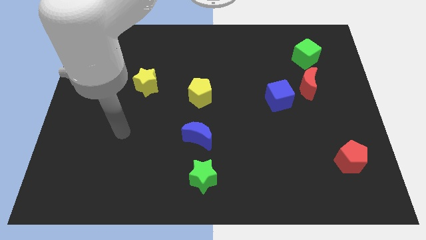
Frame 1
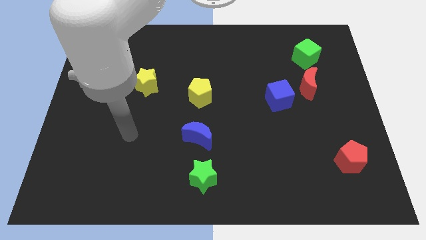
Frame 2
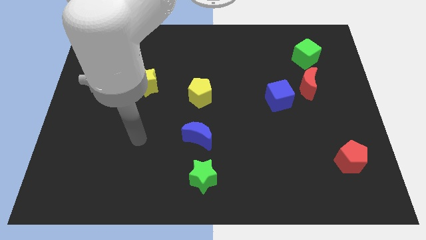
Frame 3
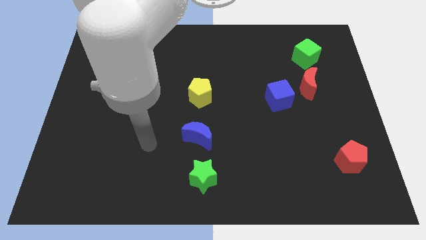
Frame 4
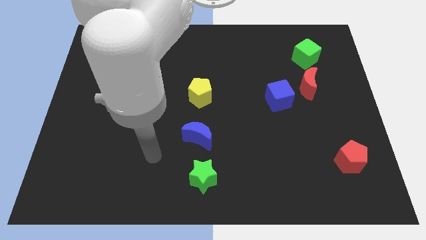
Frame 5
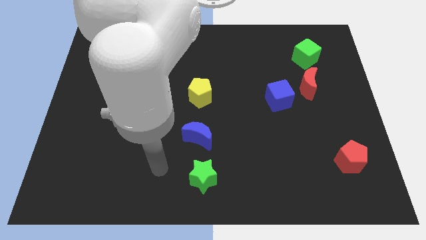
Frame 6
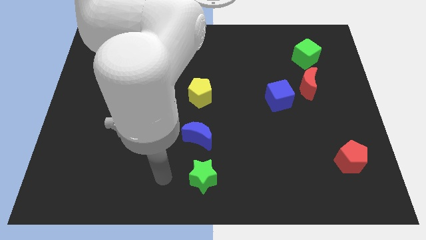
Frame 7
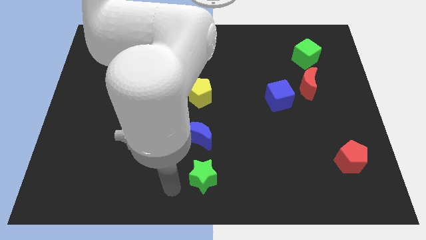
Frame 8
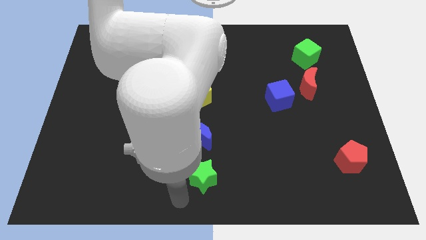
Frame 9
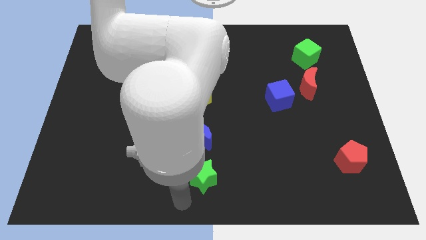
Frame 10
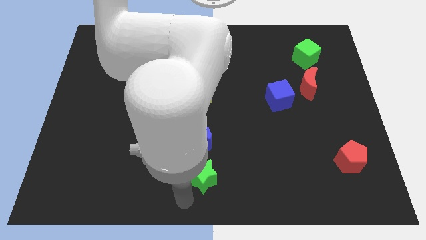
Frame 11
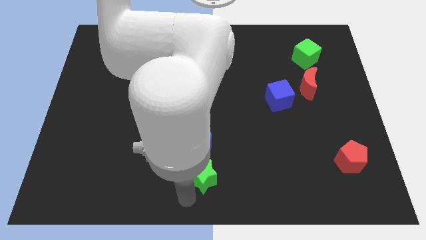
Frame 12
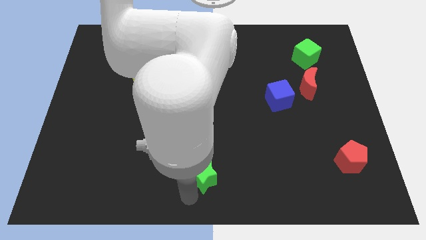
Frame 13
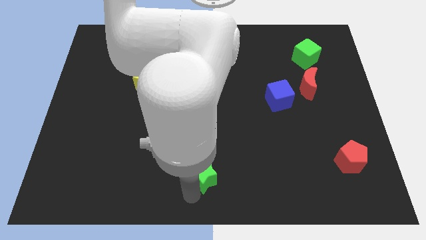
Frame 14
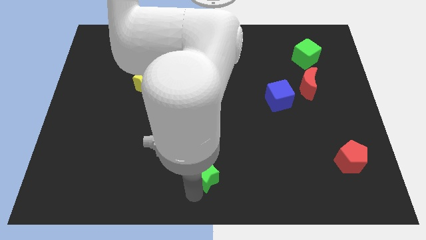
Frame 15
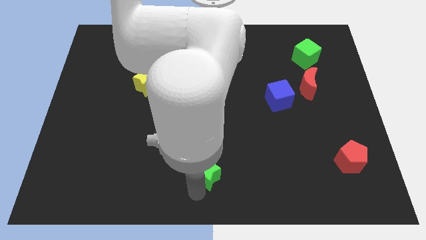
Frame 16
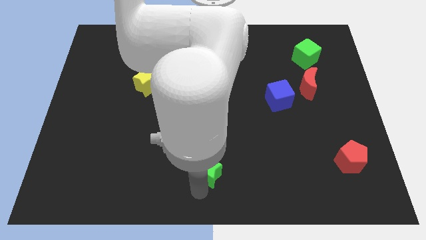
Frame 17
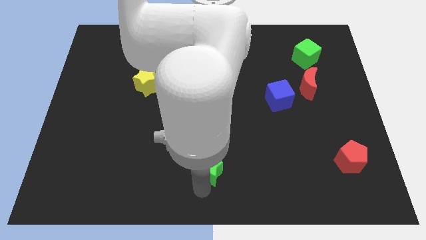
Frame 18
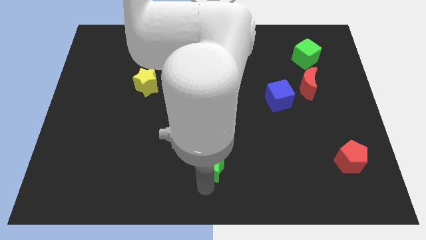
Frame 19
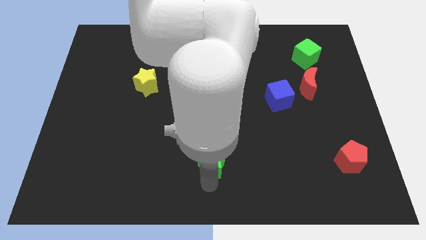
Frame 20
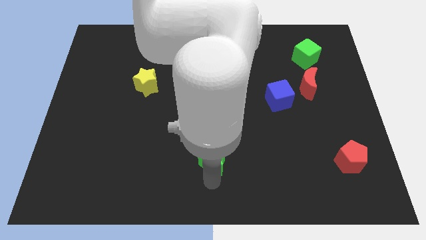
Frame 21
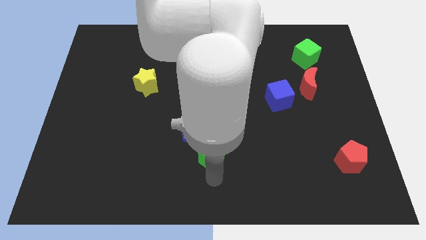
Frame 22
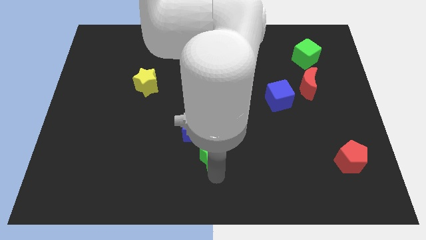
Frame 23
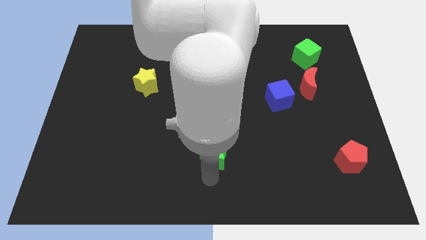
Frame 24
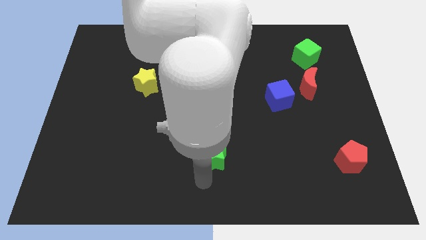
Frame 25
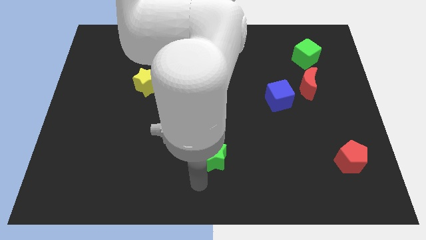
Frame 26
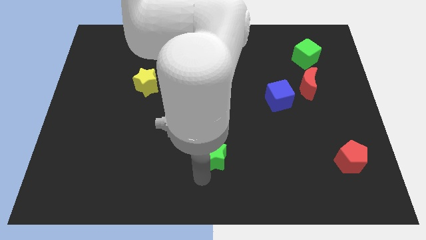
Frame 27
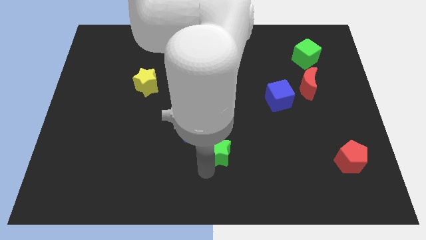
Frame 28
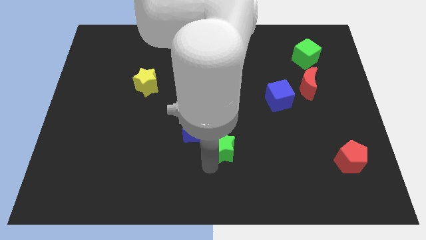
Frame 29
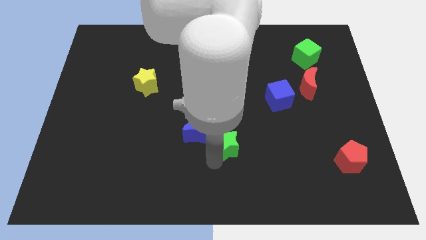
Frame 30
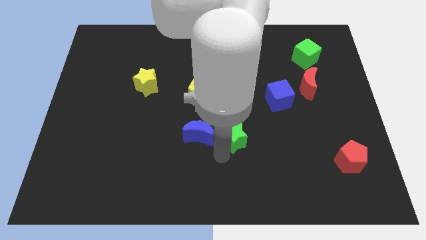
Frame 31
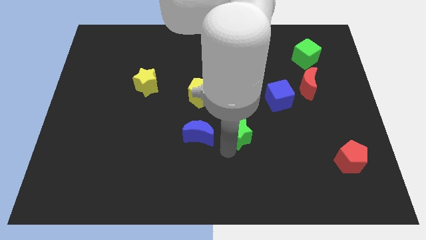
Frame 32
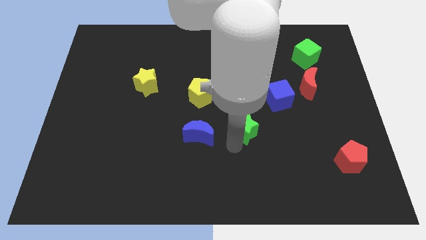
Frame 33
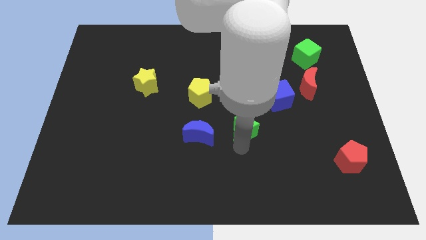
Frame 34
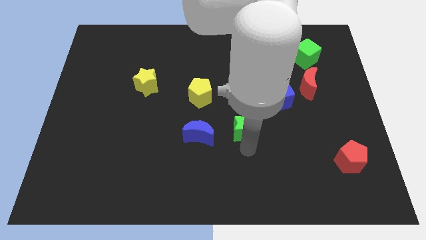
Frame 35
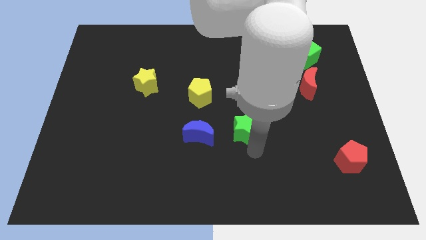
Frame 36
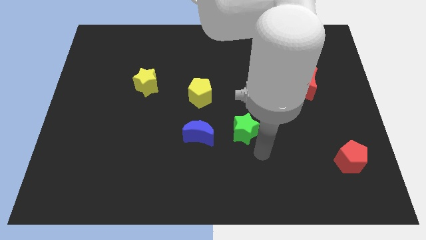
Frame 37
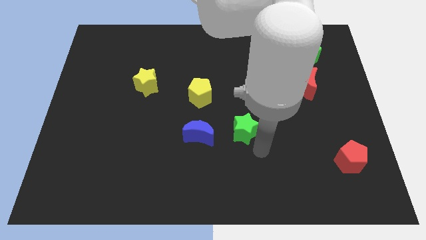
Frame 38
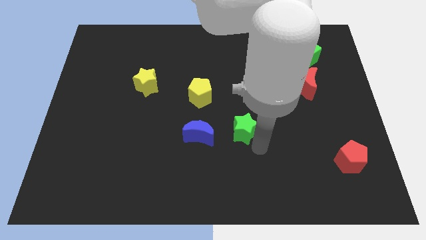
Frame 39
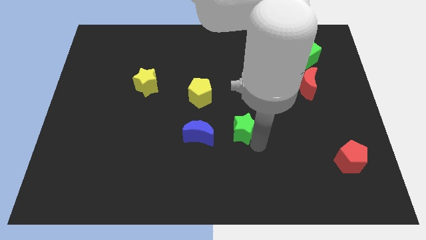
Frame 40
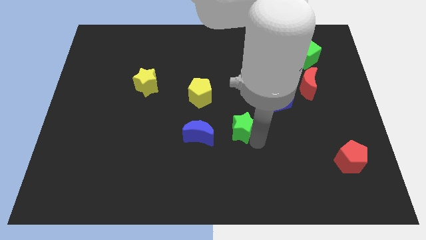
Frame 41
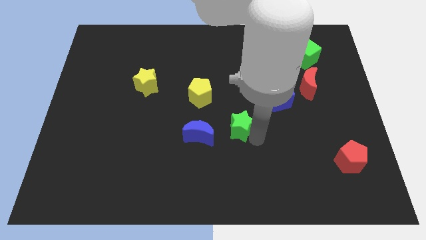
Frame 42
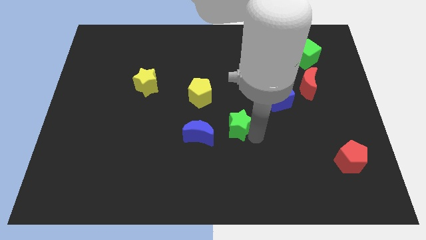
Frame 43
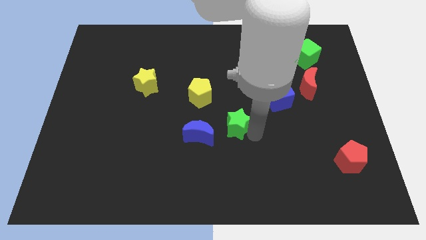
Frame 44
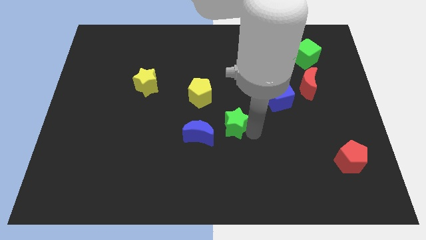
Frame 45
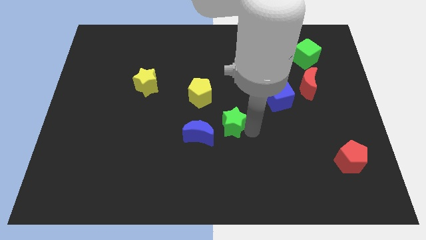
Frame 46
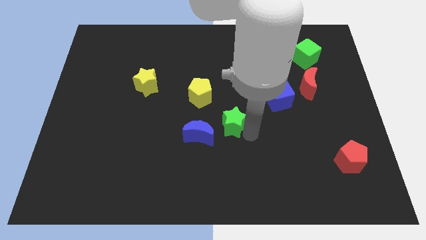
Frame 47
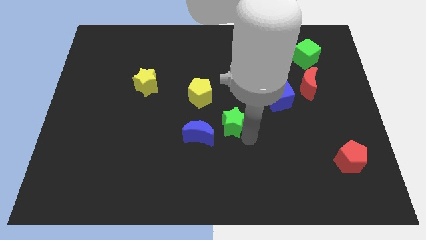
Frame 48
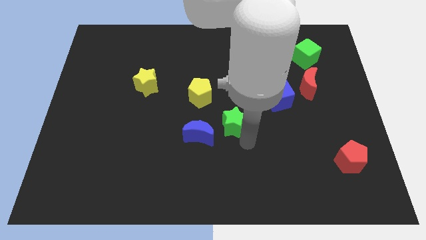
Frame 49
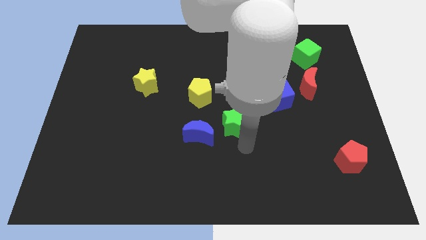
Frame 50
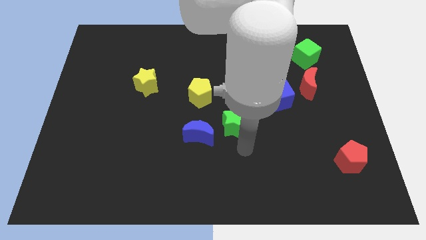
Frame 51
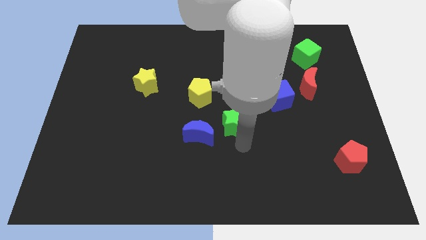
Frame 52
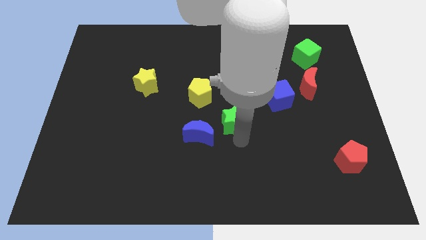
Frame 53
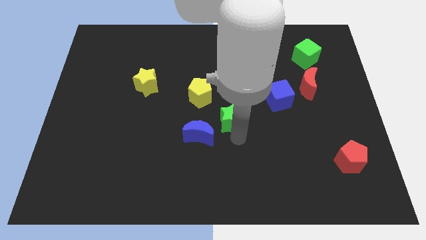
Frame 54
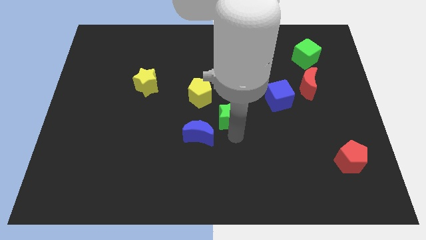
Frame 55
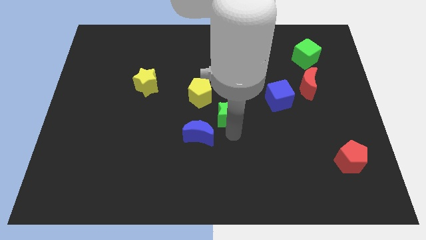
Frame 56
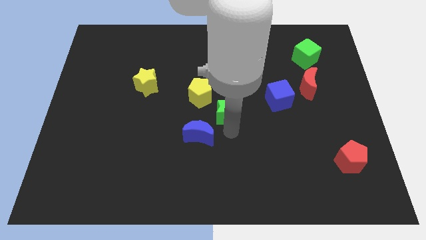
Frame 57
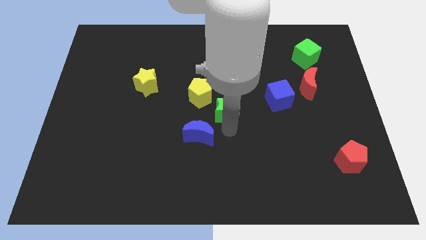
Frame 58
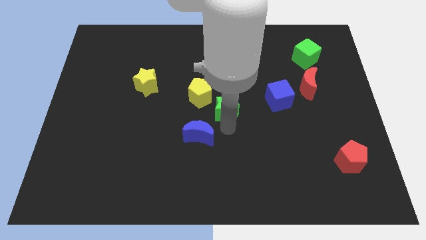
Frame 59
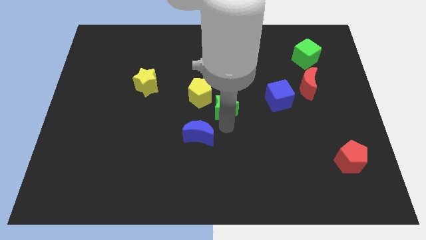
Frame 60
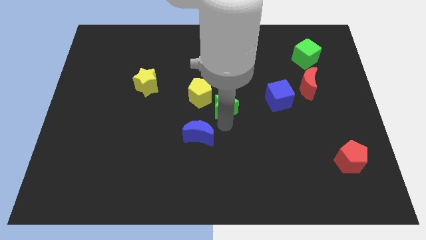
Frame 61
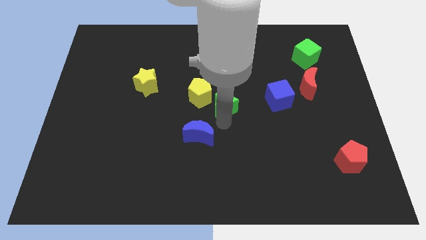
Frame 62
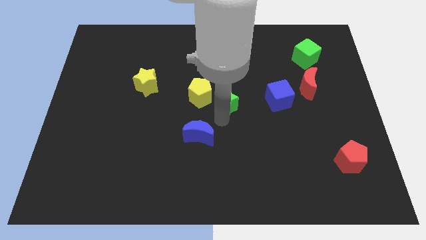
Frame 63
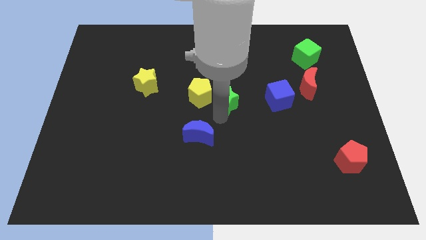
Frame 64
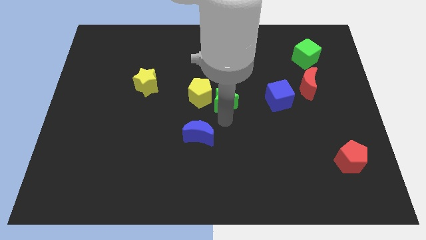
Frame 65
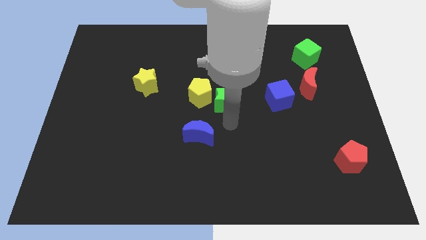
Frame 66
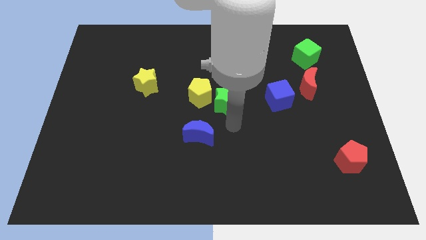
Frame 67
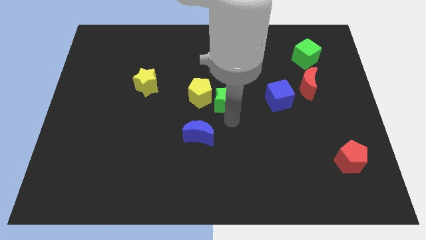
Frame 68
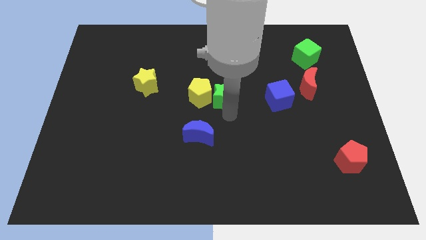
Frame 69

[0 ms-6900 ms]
push the green star up

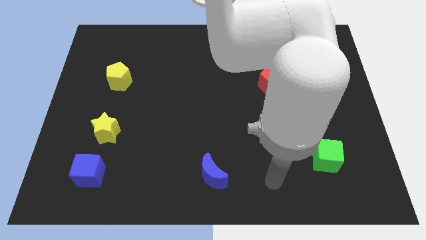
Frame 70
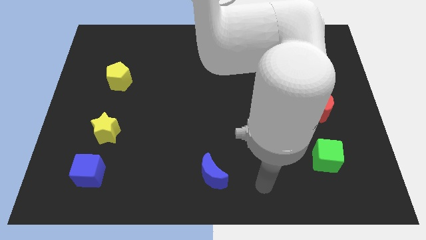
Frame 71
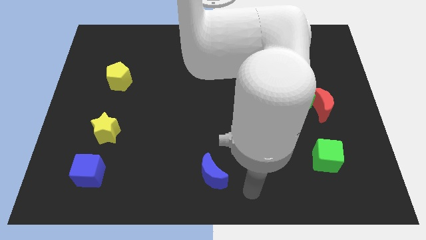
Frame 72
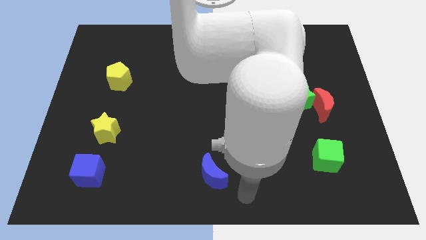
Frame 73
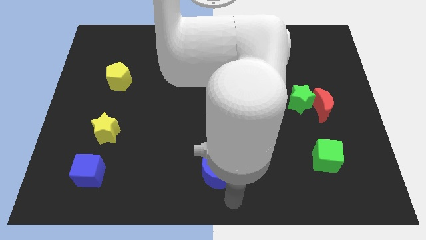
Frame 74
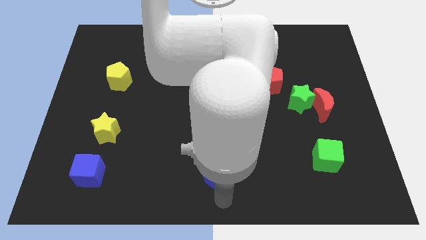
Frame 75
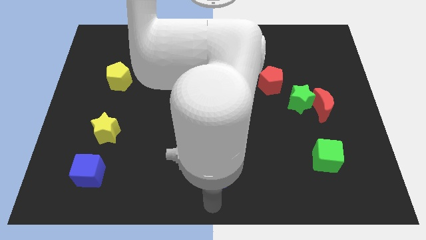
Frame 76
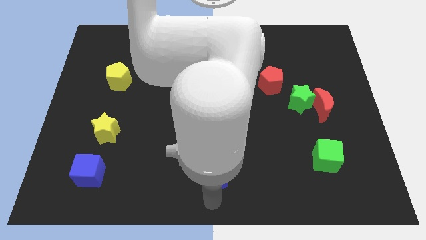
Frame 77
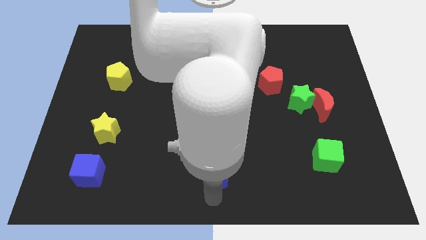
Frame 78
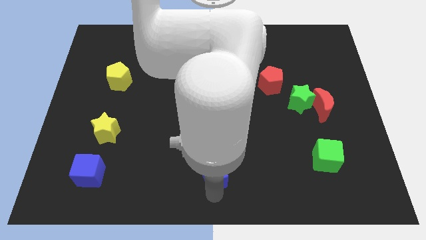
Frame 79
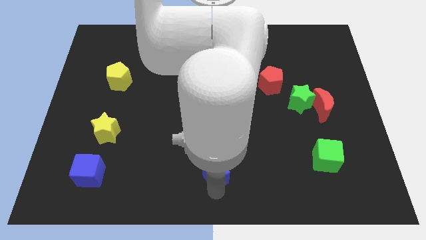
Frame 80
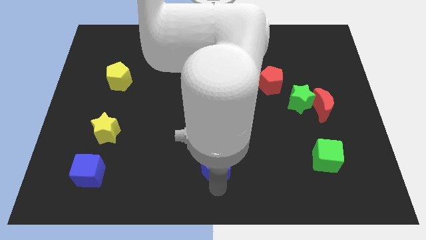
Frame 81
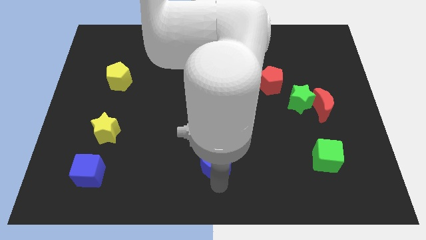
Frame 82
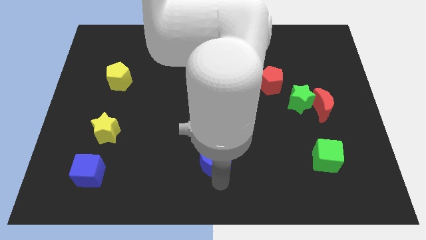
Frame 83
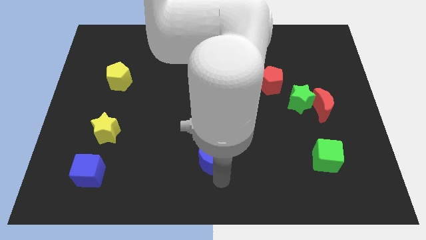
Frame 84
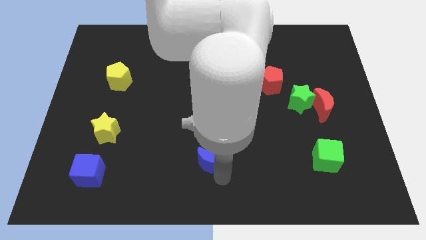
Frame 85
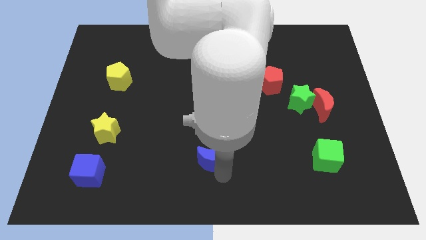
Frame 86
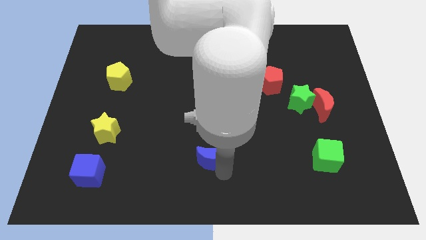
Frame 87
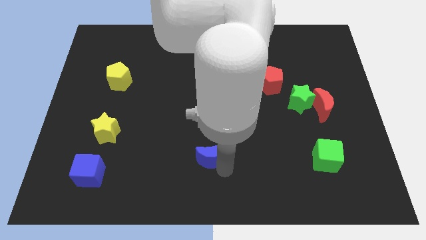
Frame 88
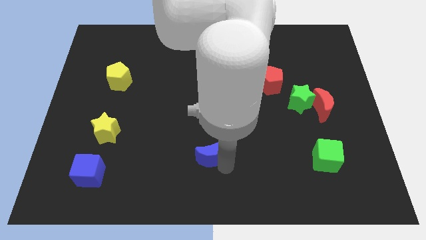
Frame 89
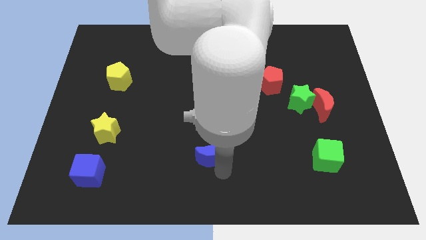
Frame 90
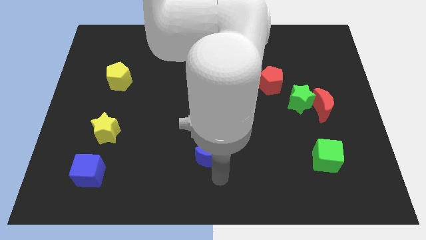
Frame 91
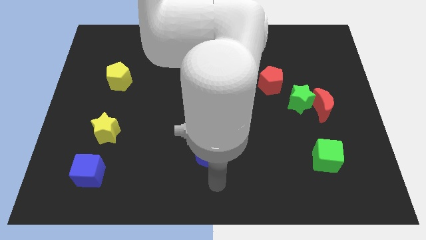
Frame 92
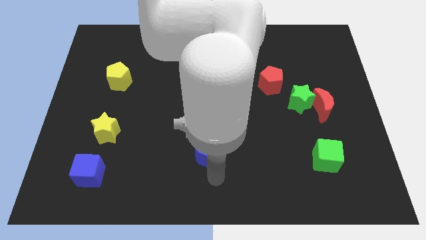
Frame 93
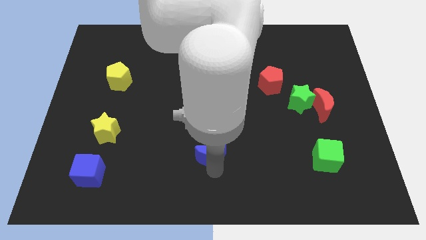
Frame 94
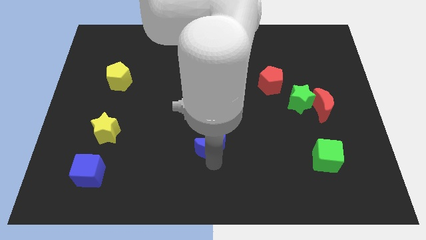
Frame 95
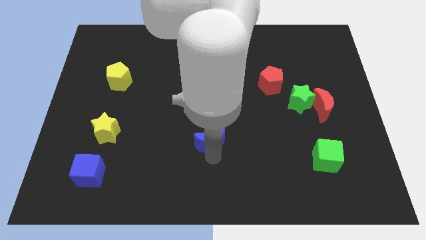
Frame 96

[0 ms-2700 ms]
move the blue moon upwards a little bit
